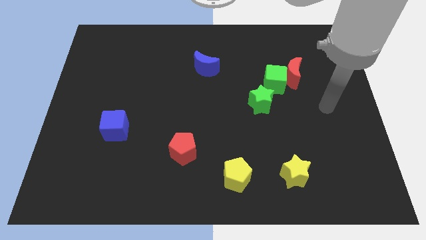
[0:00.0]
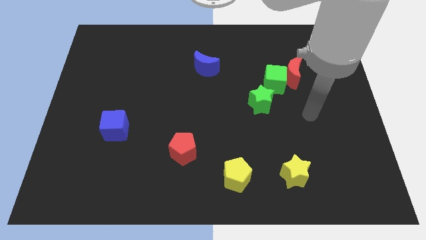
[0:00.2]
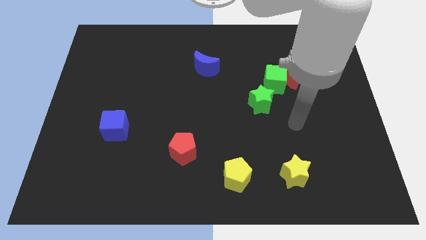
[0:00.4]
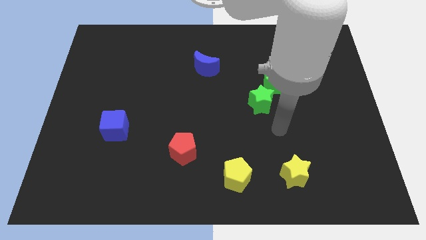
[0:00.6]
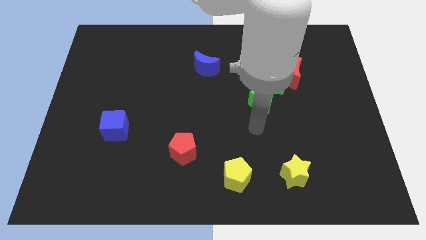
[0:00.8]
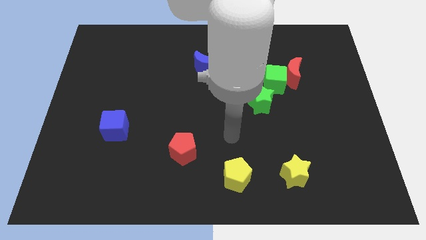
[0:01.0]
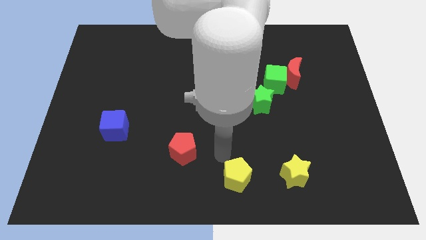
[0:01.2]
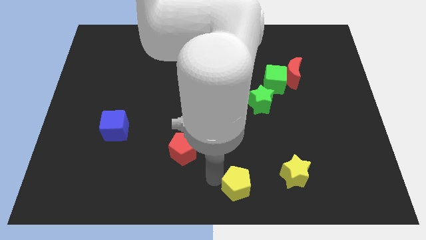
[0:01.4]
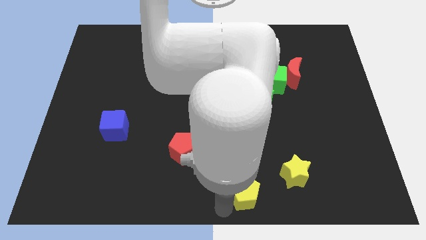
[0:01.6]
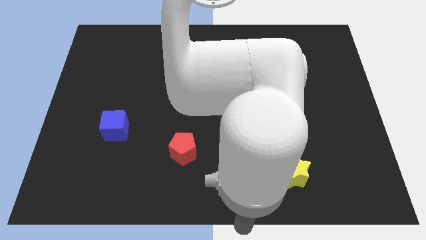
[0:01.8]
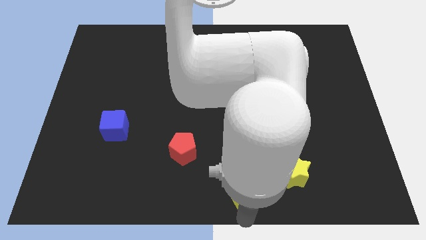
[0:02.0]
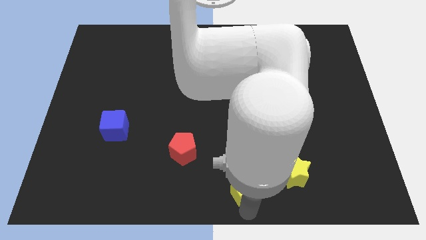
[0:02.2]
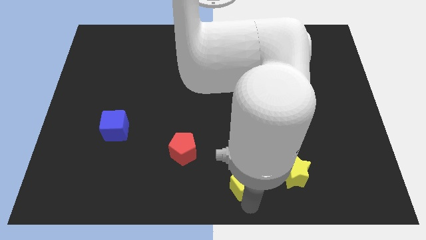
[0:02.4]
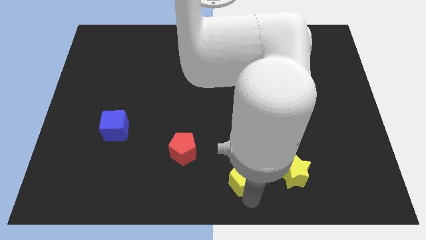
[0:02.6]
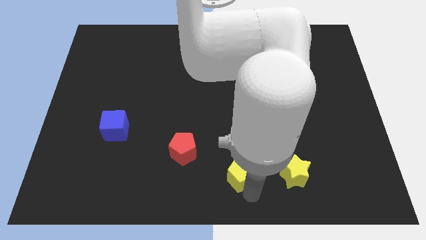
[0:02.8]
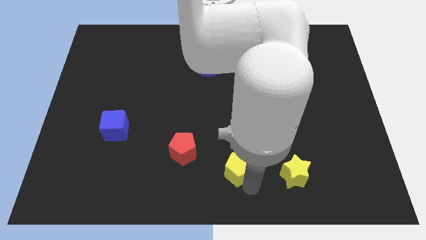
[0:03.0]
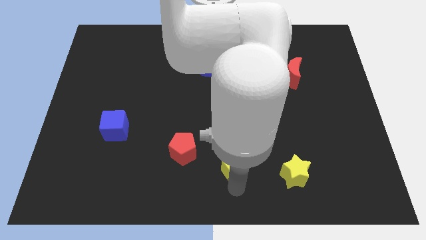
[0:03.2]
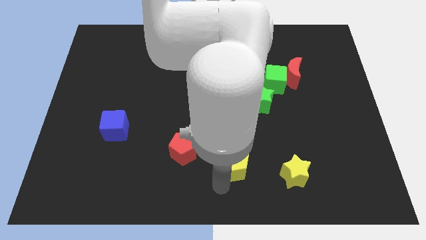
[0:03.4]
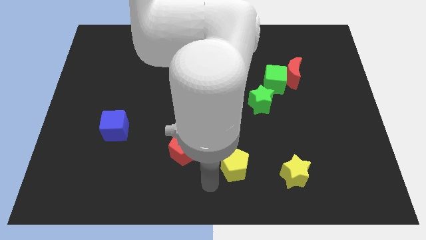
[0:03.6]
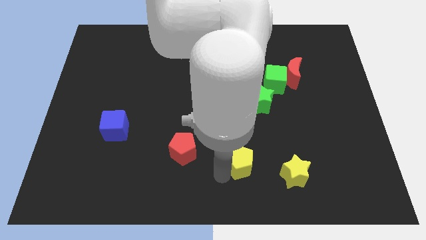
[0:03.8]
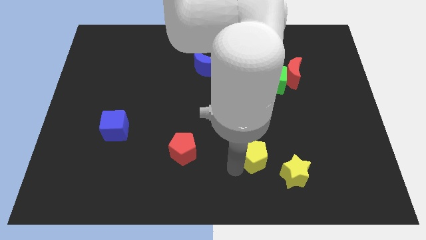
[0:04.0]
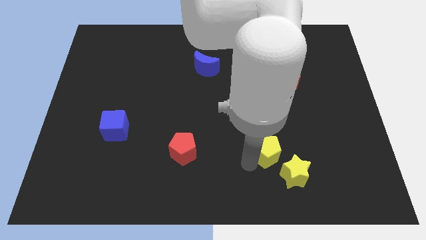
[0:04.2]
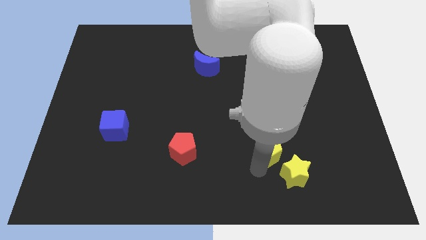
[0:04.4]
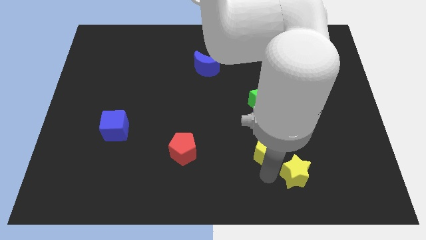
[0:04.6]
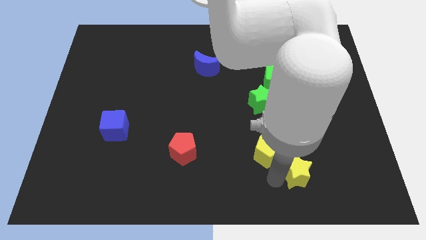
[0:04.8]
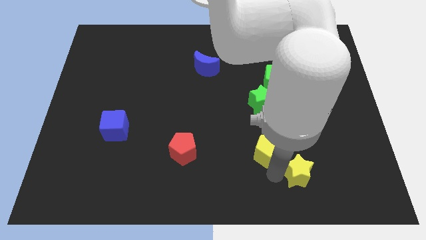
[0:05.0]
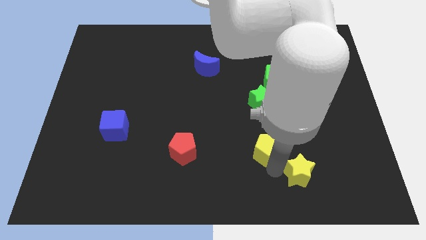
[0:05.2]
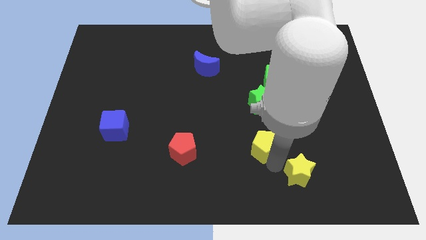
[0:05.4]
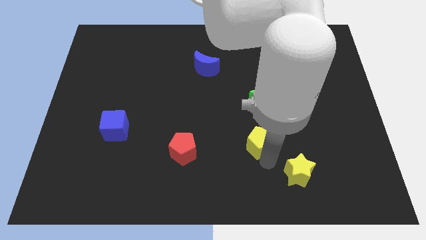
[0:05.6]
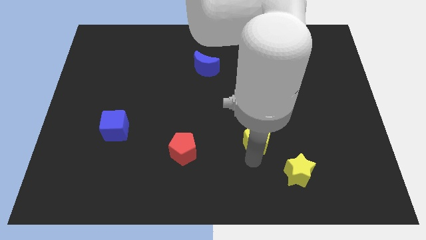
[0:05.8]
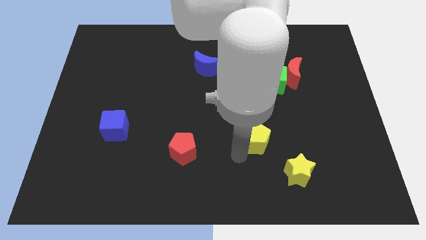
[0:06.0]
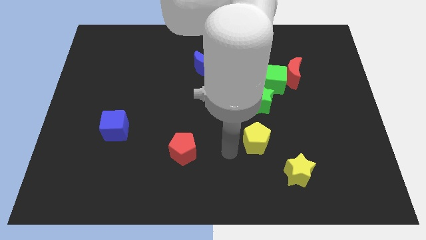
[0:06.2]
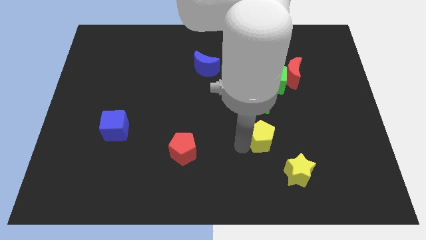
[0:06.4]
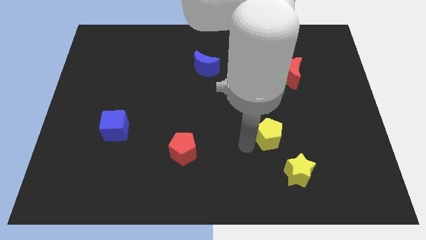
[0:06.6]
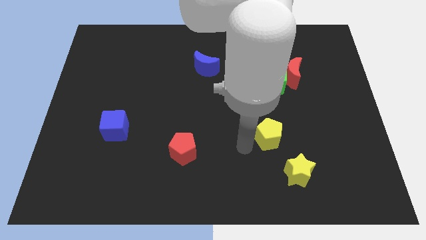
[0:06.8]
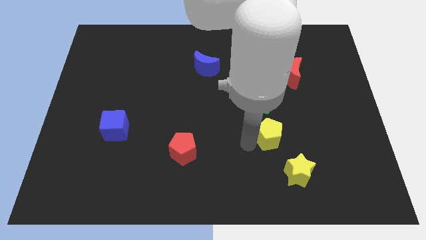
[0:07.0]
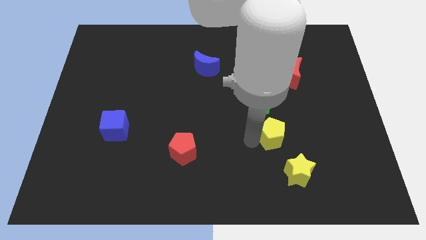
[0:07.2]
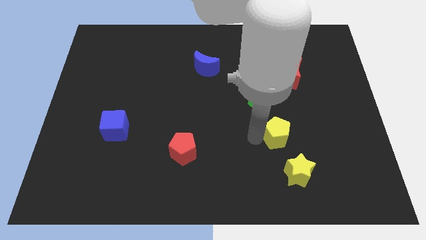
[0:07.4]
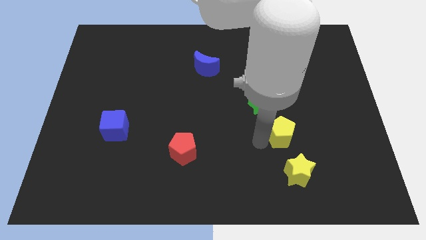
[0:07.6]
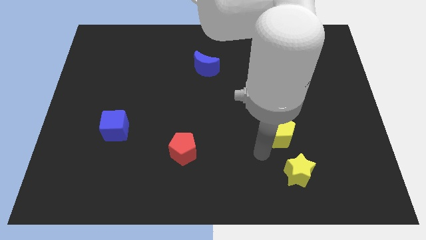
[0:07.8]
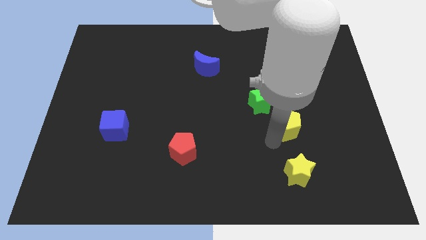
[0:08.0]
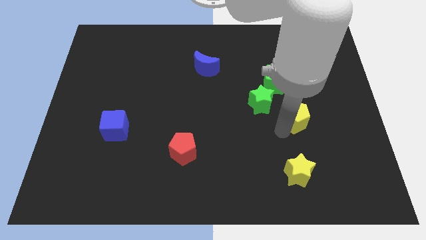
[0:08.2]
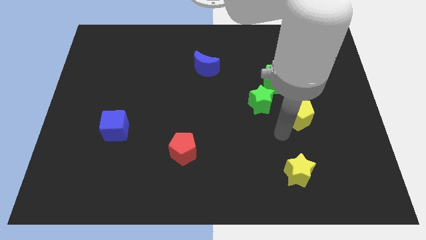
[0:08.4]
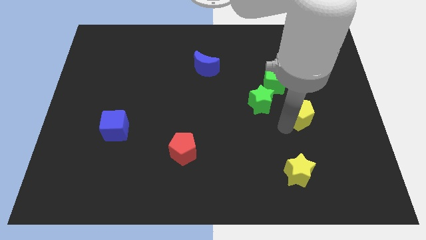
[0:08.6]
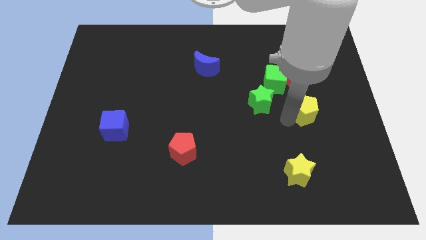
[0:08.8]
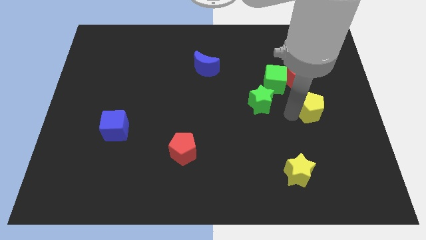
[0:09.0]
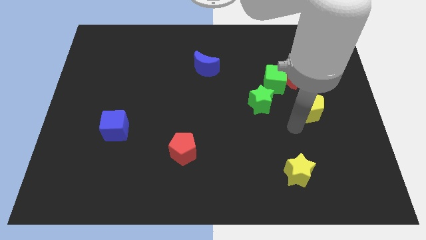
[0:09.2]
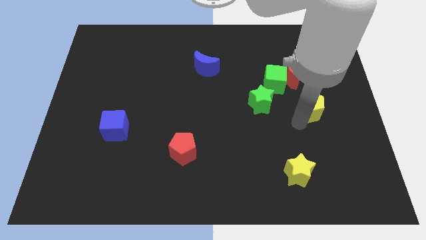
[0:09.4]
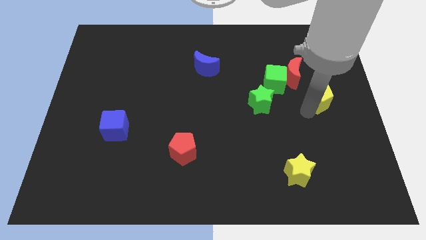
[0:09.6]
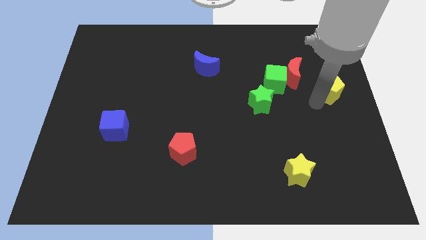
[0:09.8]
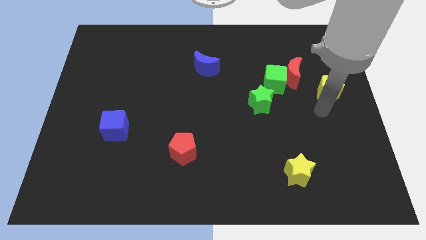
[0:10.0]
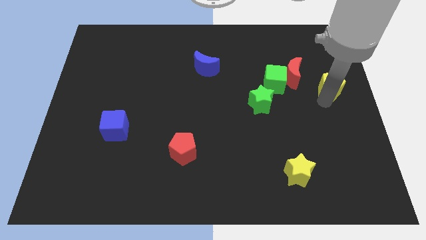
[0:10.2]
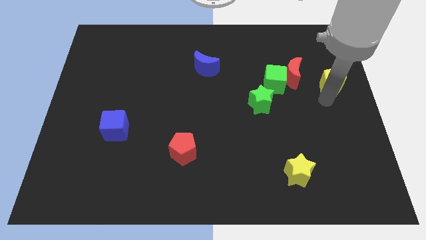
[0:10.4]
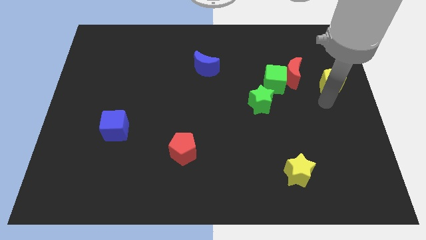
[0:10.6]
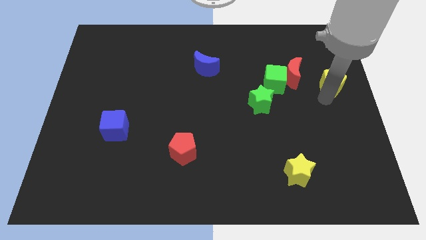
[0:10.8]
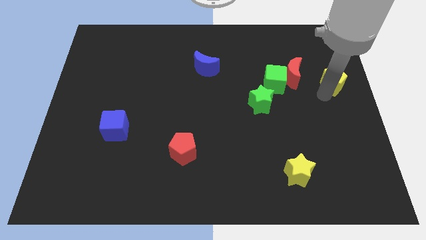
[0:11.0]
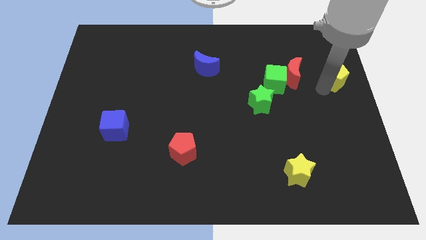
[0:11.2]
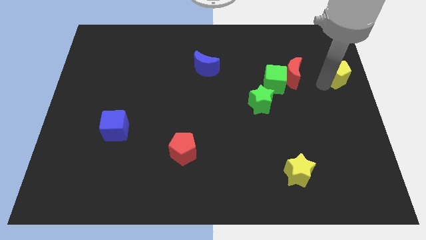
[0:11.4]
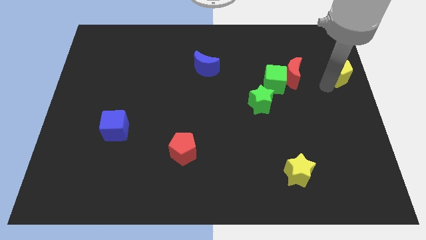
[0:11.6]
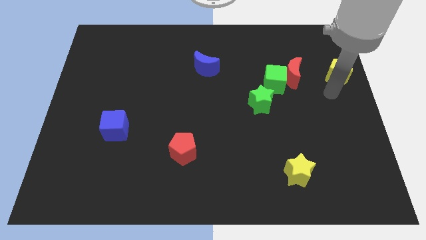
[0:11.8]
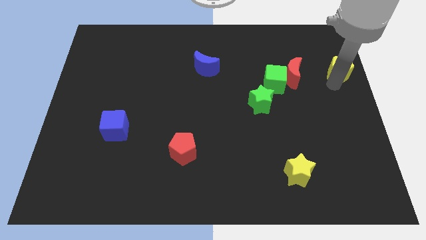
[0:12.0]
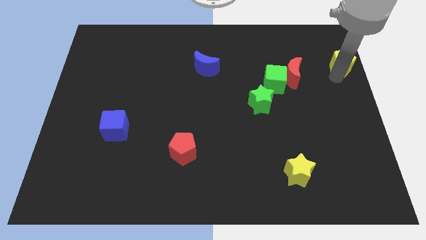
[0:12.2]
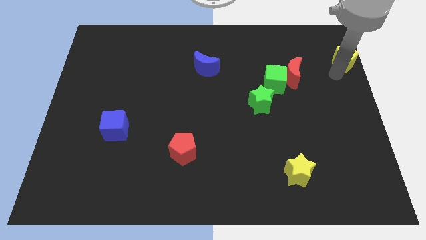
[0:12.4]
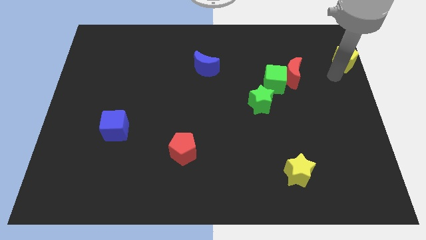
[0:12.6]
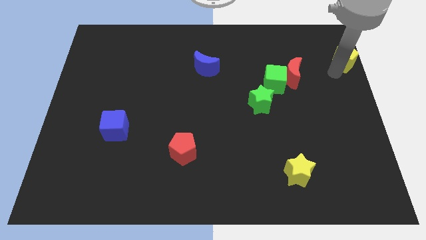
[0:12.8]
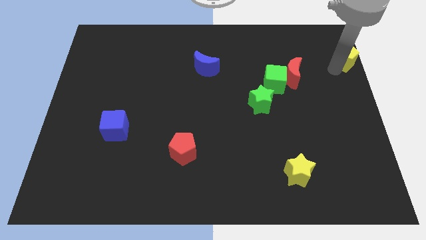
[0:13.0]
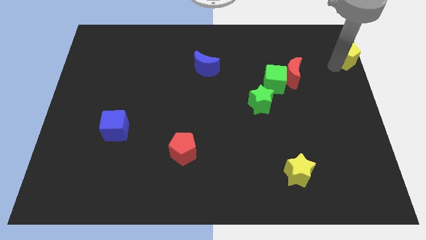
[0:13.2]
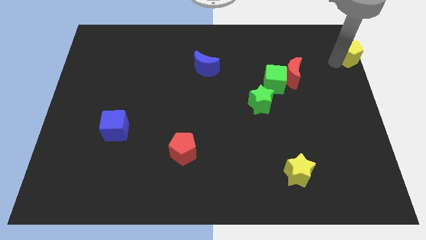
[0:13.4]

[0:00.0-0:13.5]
push the yellow pentagon to the top right corner
